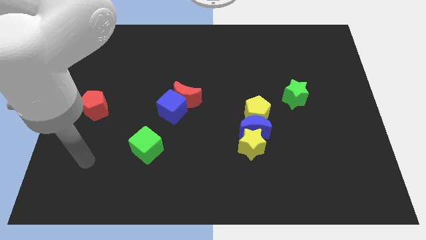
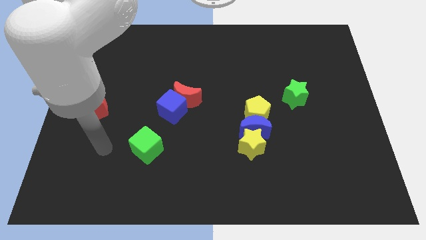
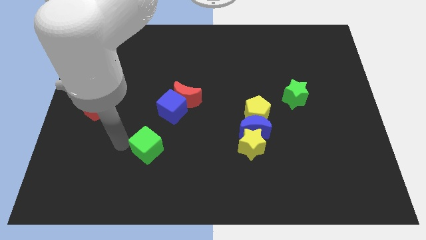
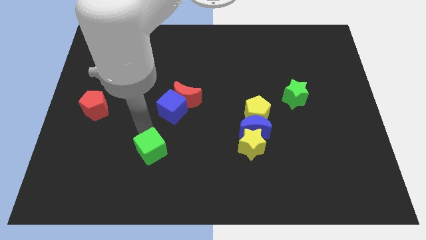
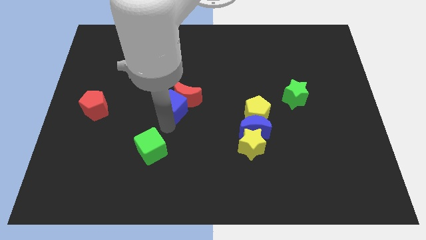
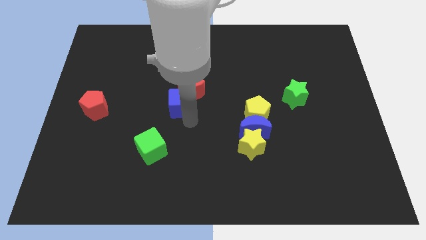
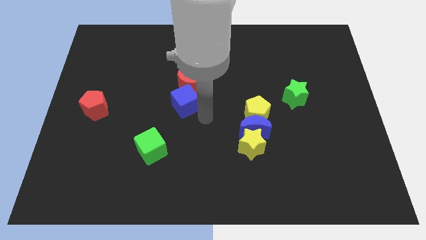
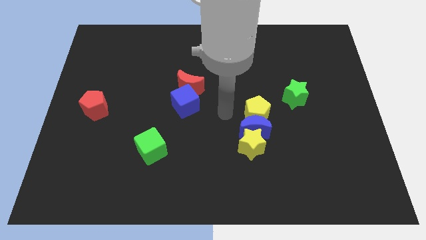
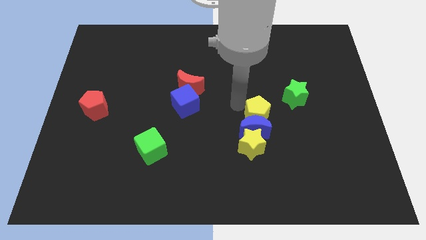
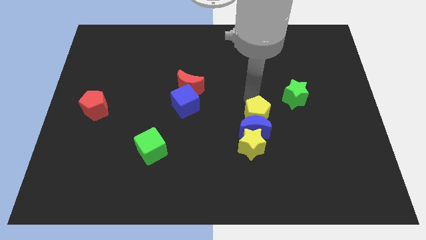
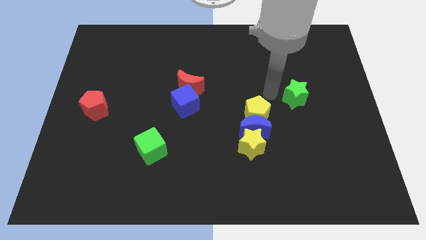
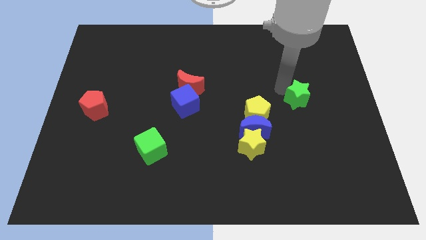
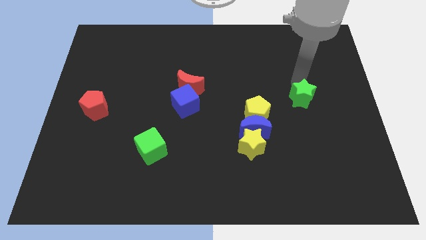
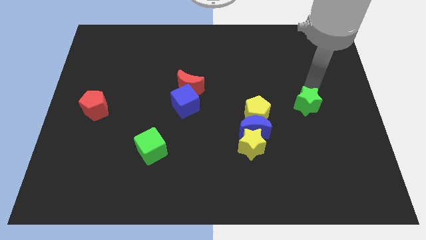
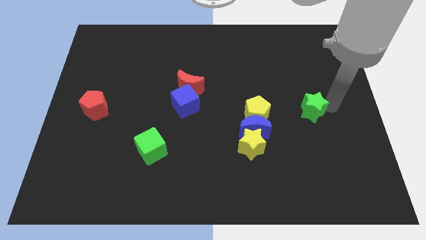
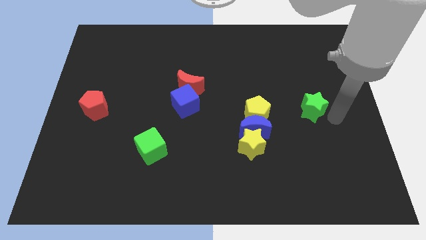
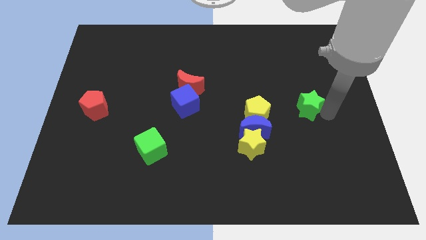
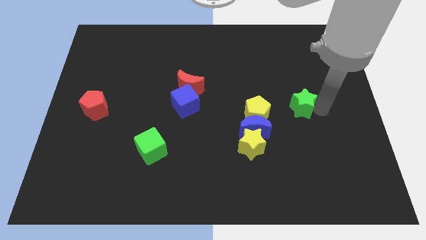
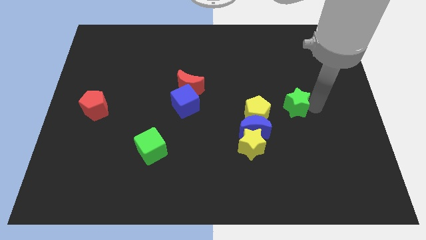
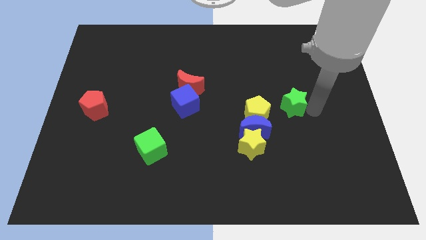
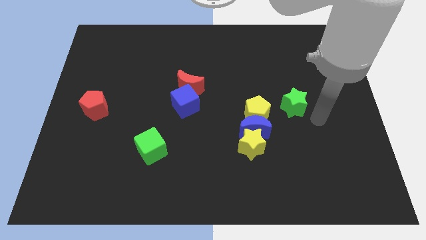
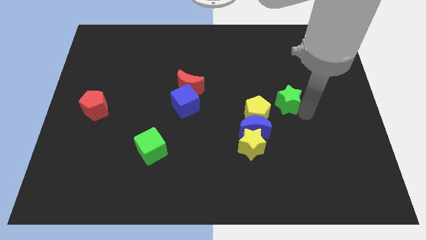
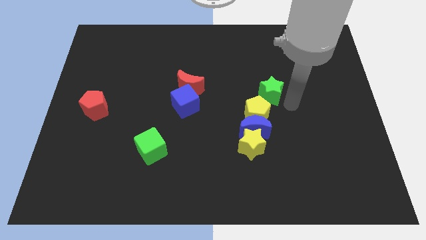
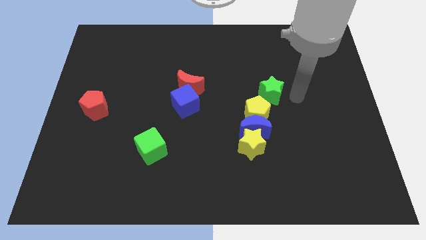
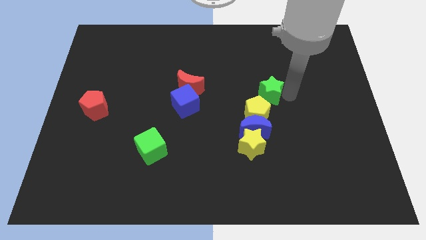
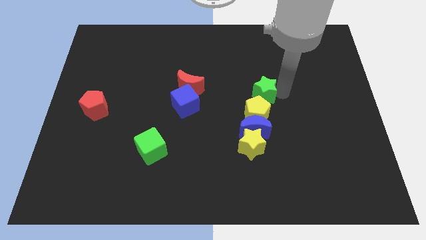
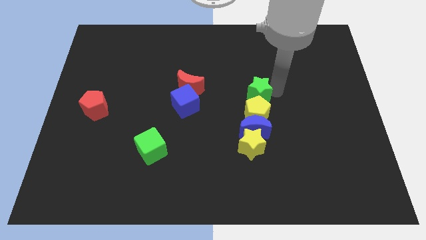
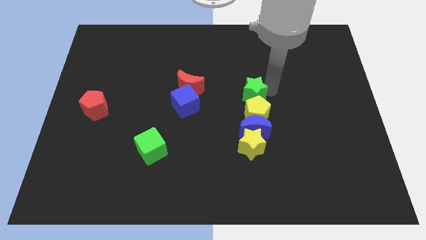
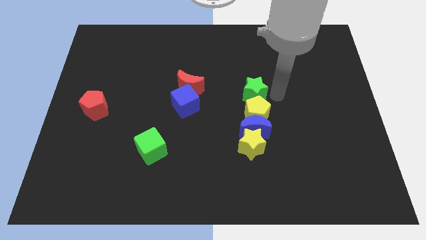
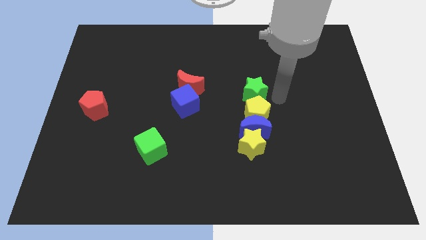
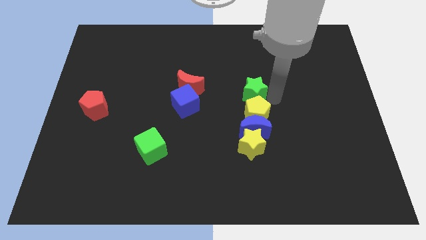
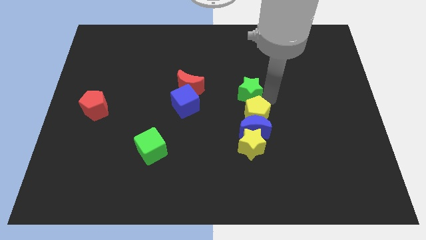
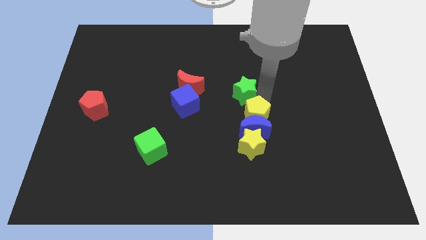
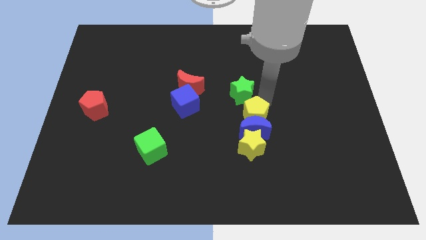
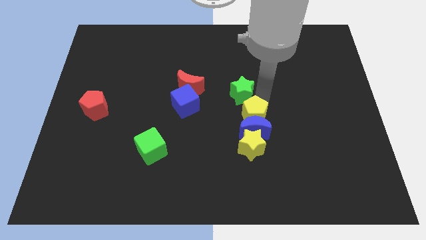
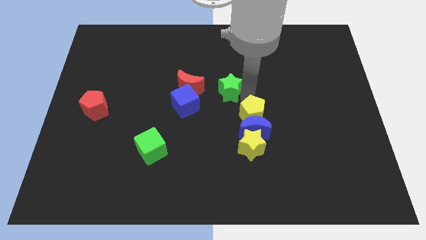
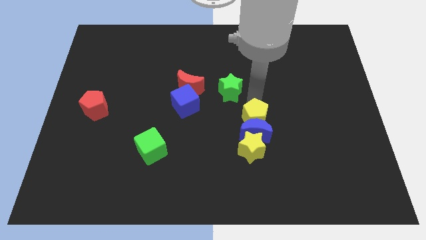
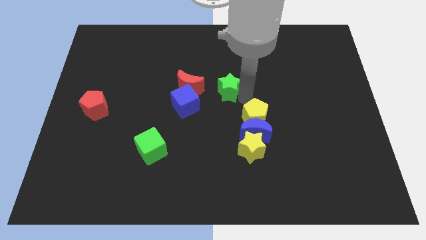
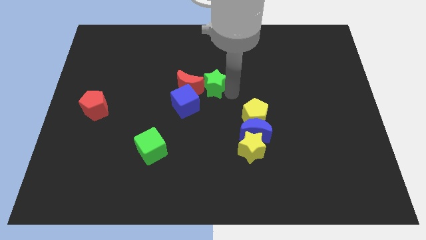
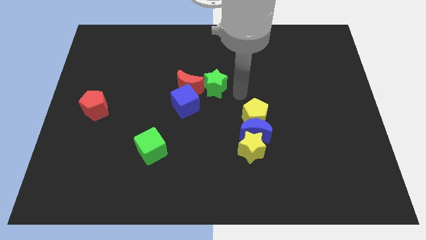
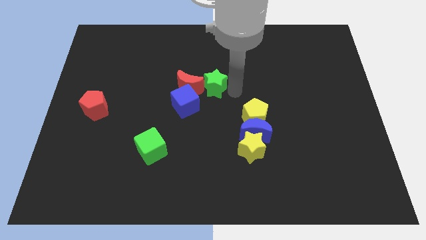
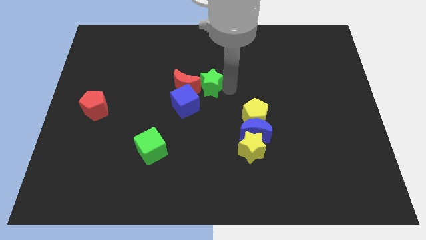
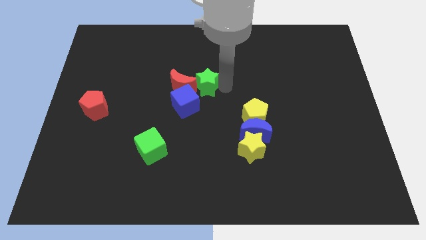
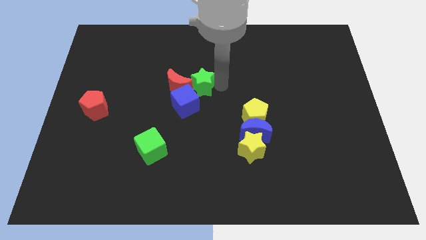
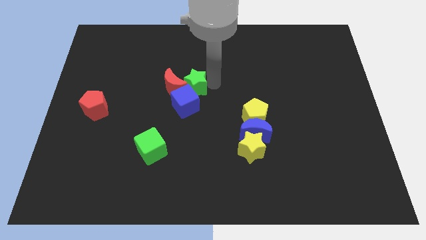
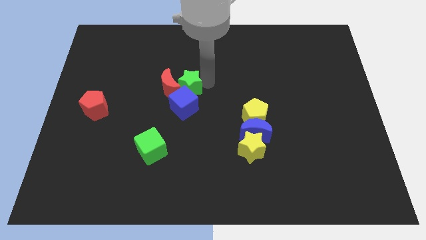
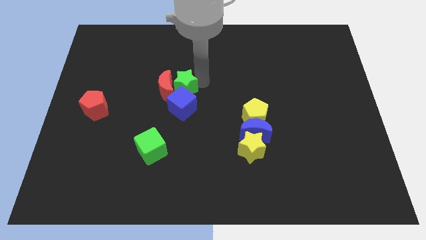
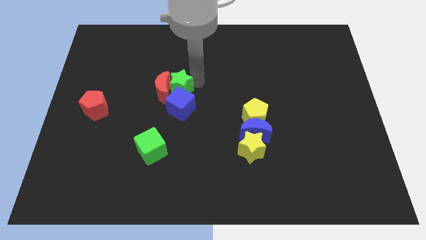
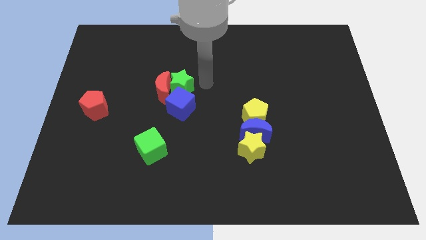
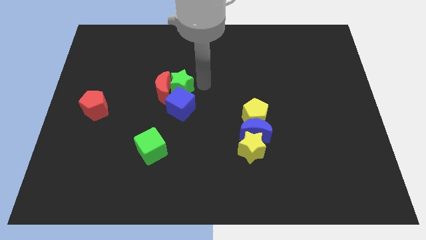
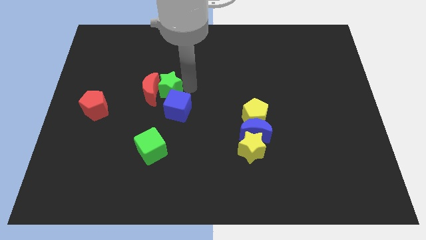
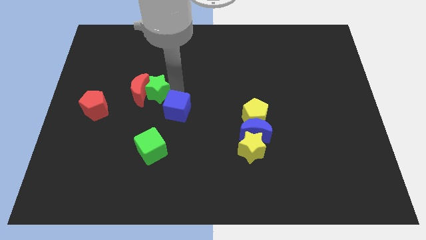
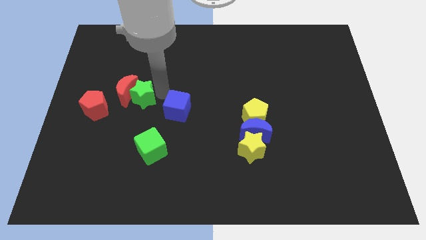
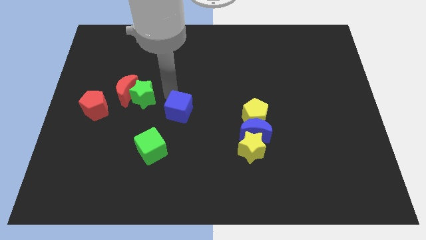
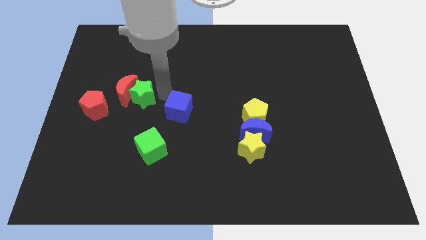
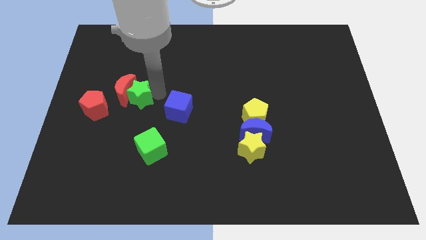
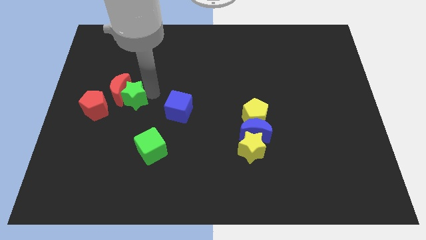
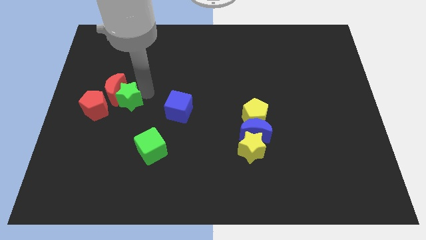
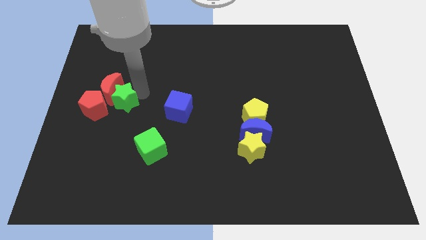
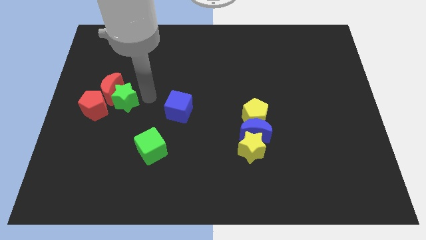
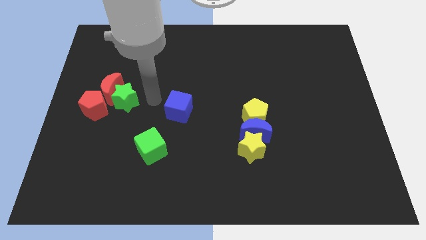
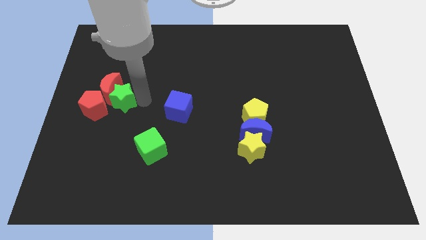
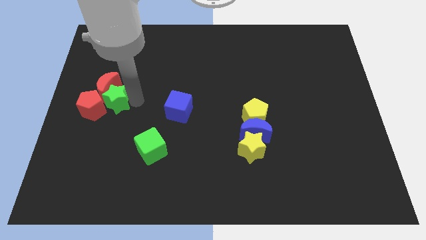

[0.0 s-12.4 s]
put the green star next to the red pentagon

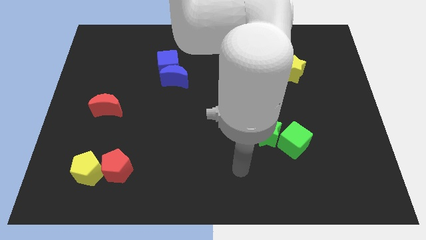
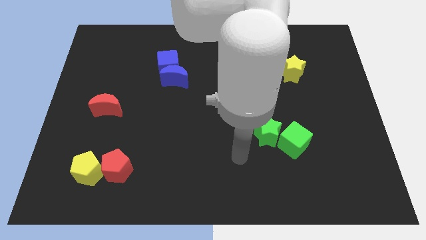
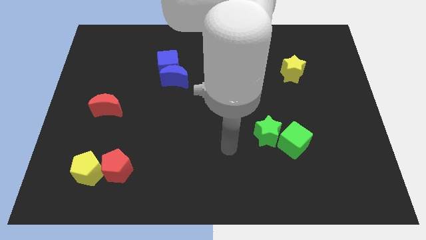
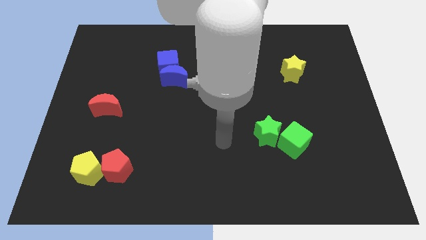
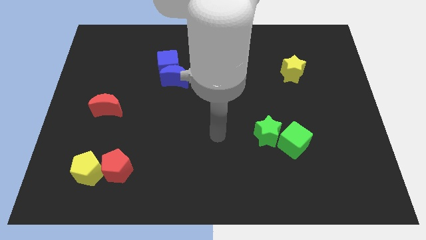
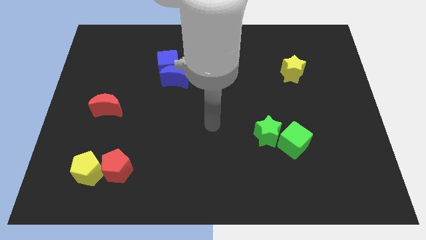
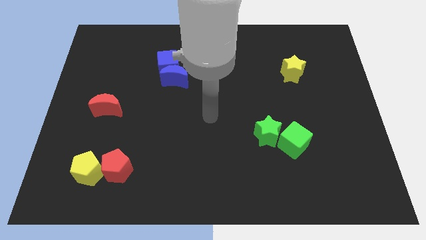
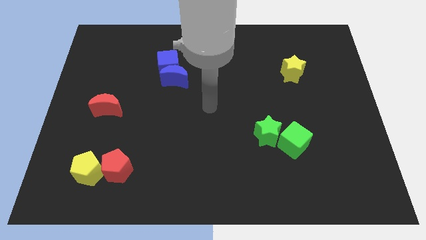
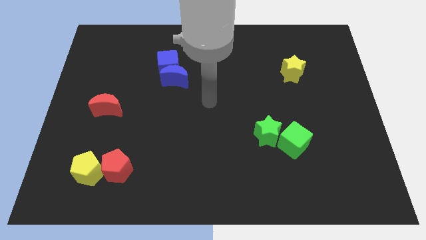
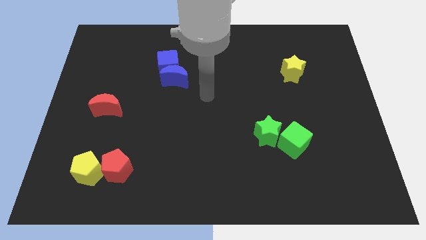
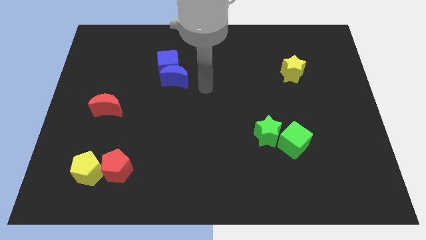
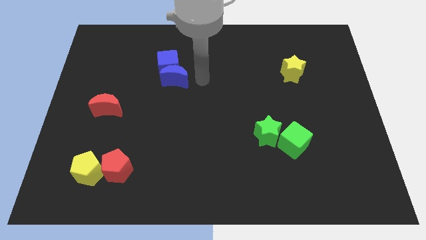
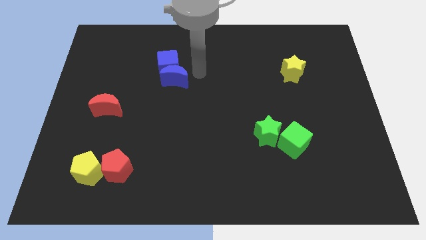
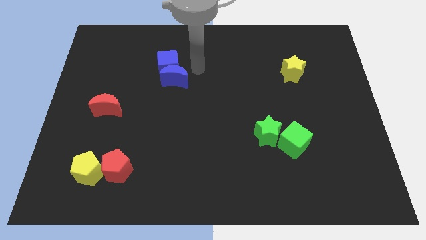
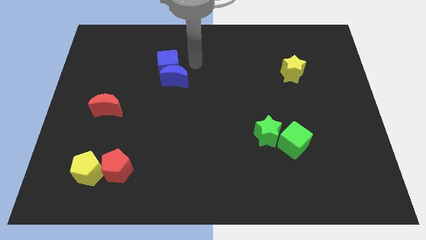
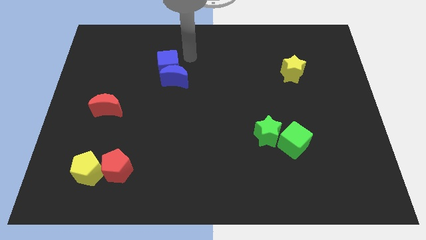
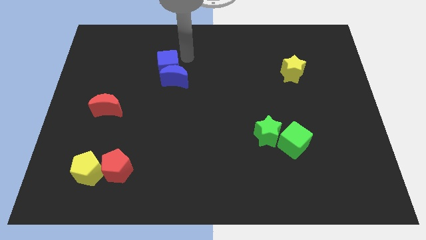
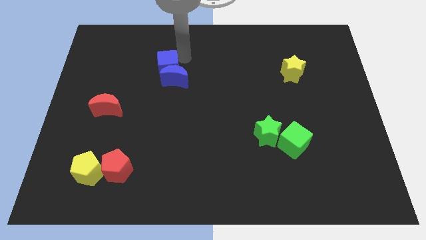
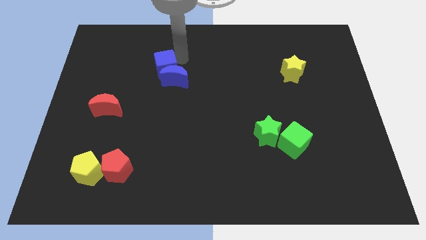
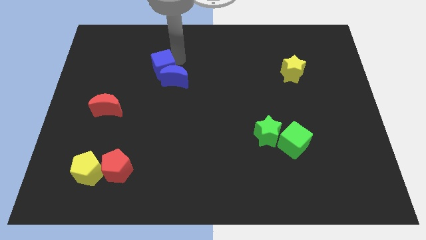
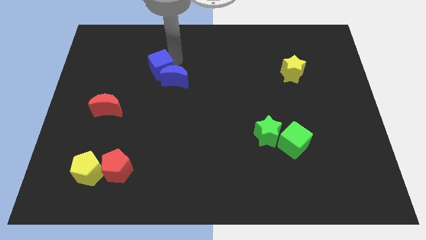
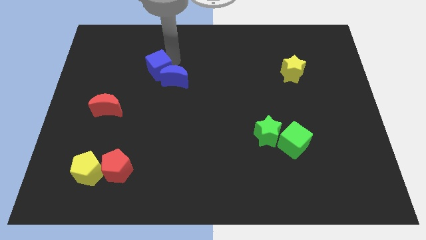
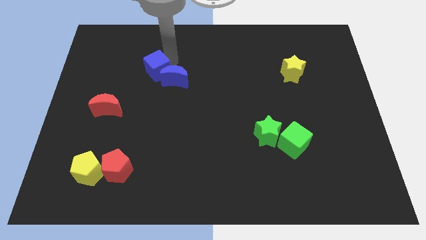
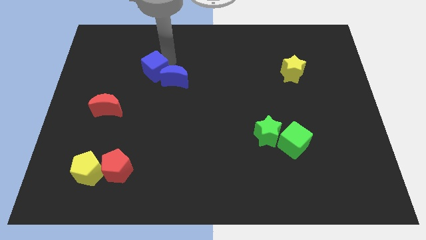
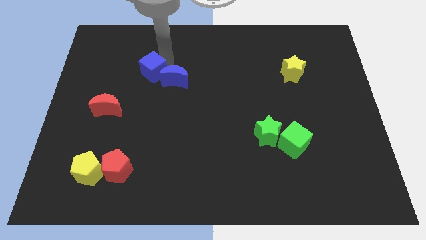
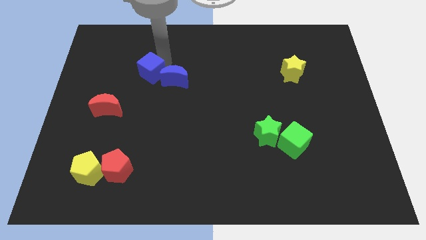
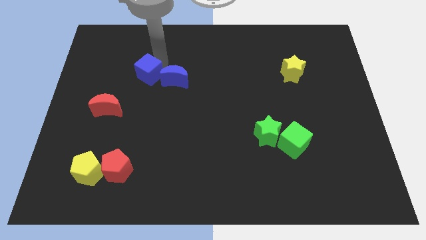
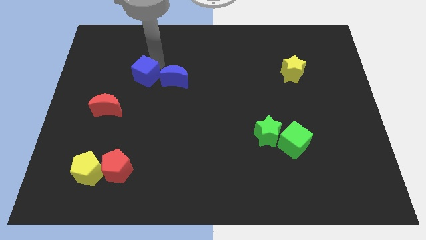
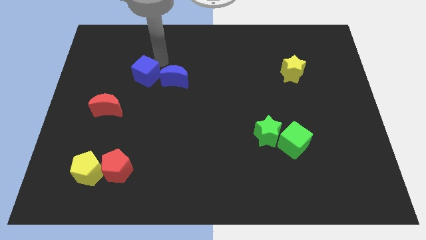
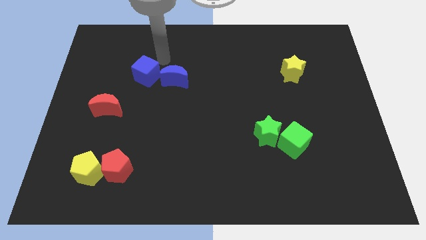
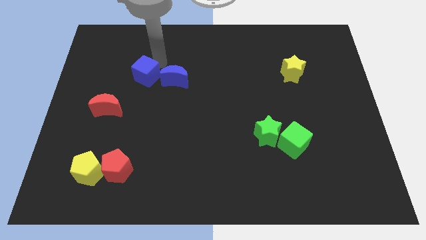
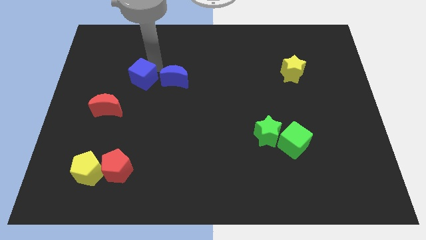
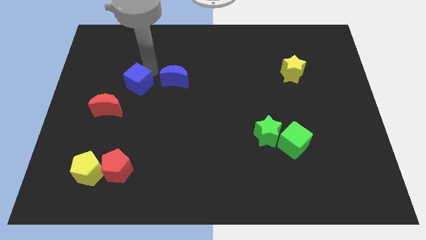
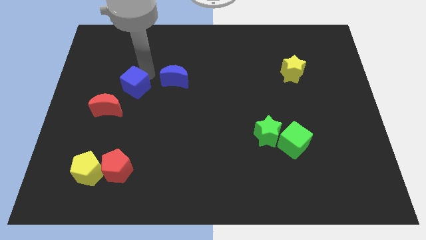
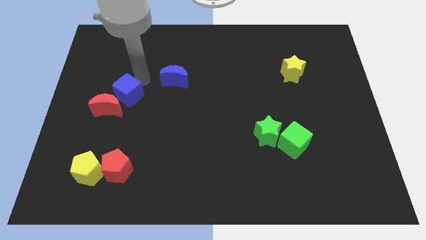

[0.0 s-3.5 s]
slide the blue cube towards the red moon
